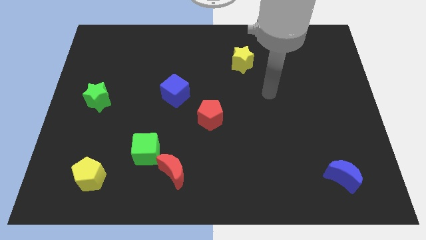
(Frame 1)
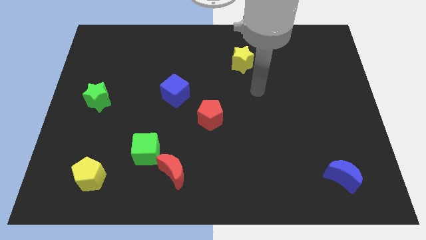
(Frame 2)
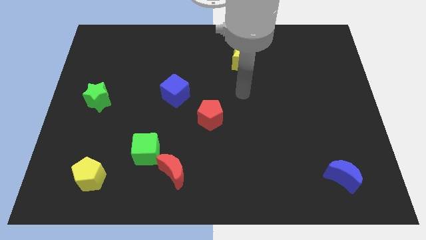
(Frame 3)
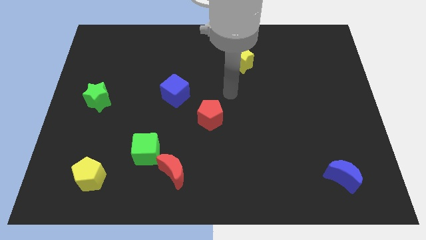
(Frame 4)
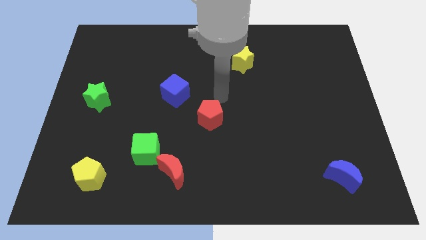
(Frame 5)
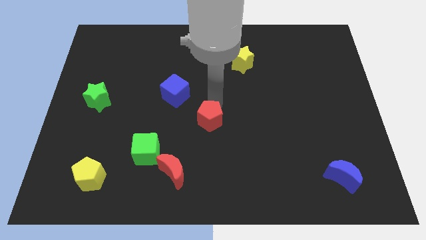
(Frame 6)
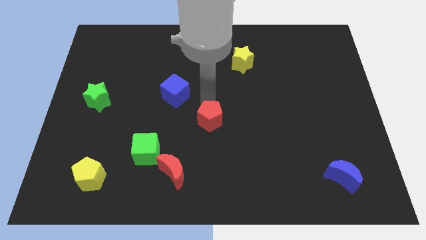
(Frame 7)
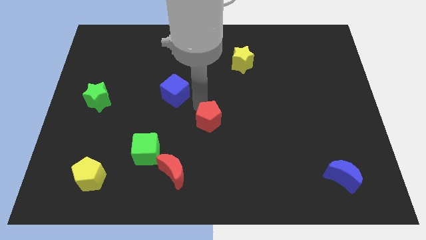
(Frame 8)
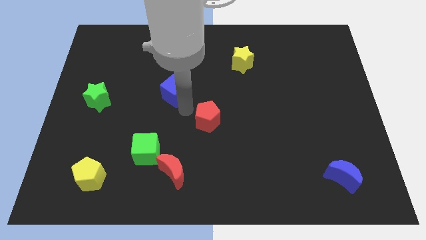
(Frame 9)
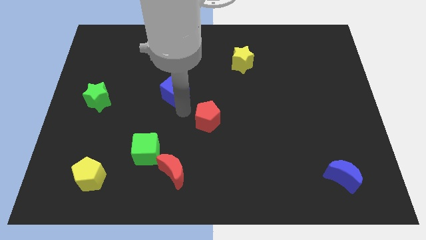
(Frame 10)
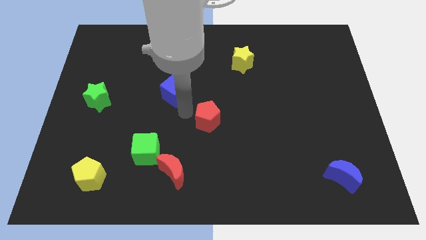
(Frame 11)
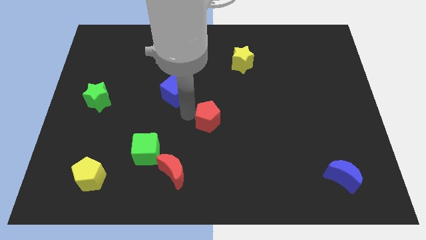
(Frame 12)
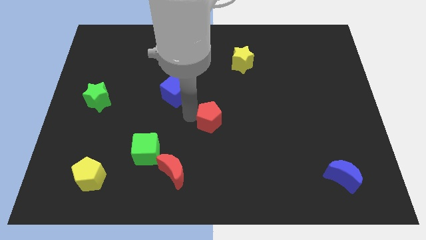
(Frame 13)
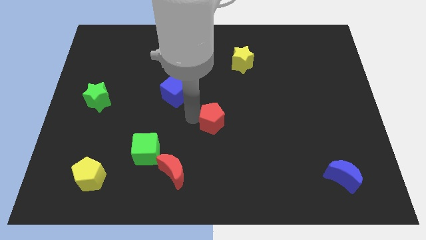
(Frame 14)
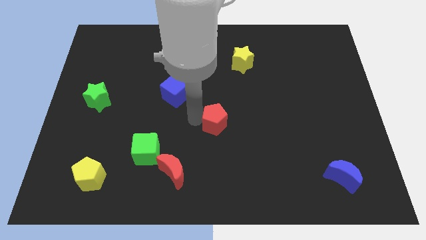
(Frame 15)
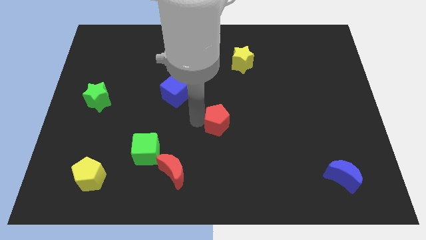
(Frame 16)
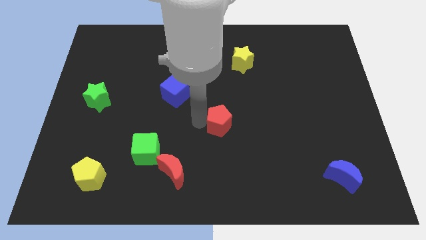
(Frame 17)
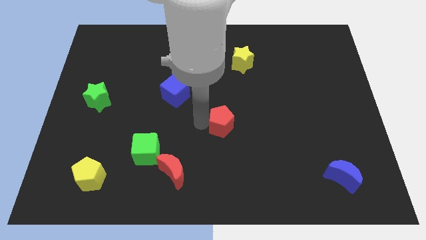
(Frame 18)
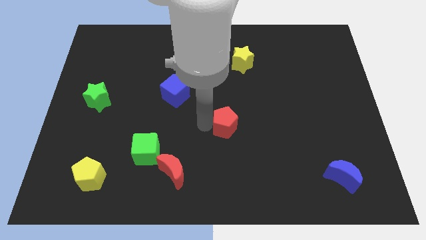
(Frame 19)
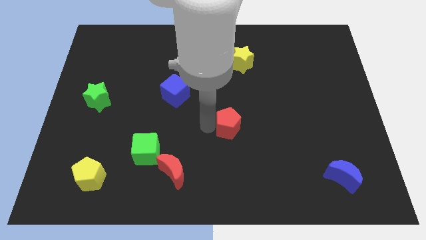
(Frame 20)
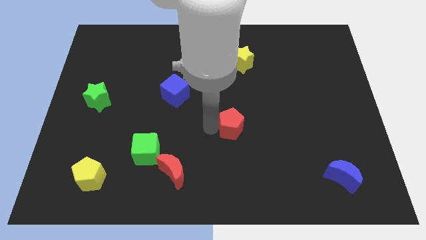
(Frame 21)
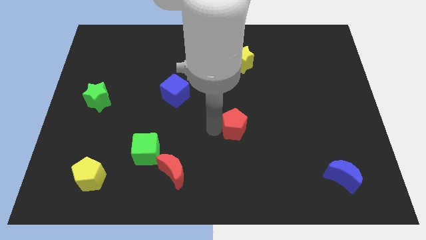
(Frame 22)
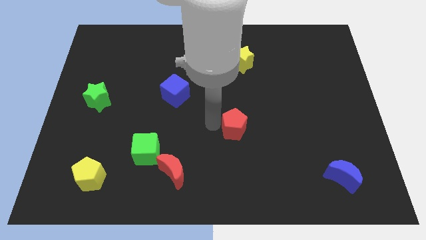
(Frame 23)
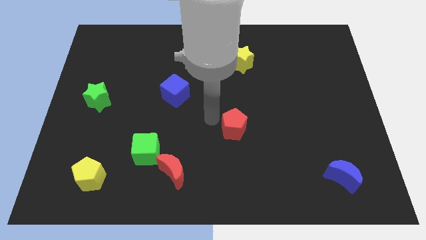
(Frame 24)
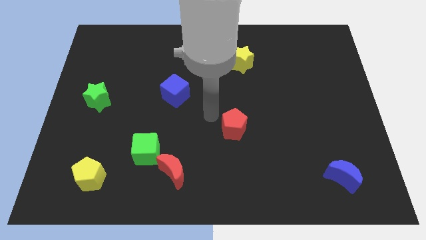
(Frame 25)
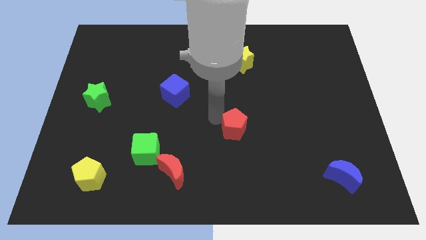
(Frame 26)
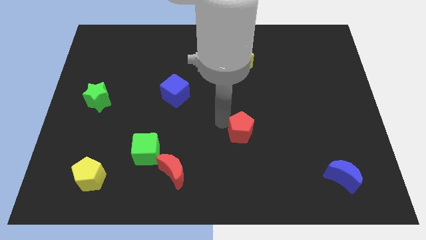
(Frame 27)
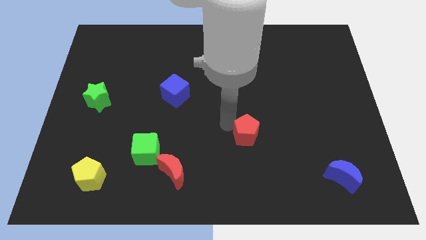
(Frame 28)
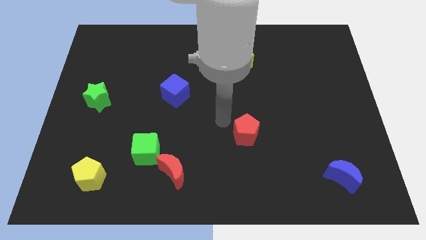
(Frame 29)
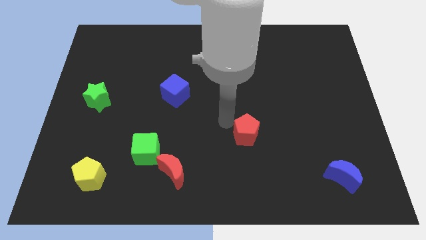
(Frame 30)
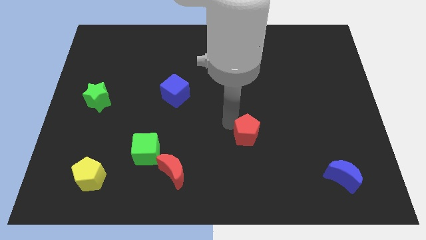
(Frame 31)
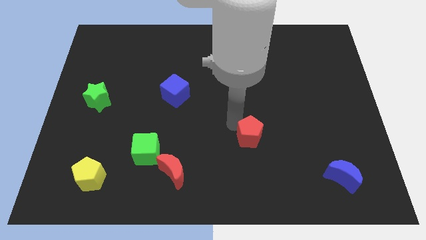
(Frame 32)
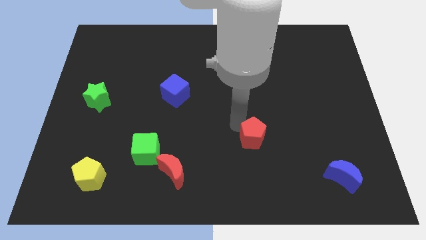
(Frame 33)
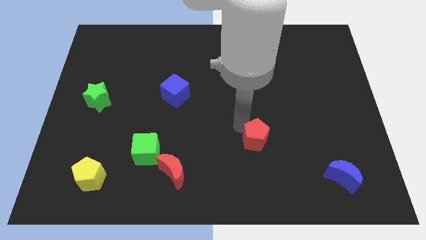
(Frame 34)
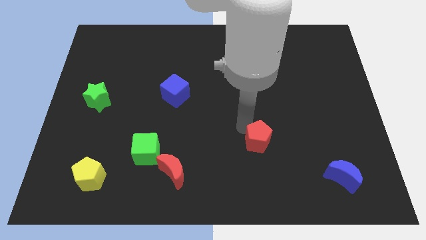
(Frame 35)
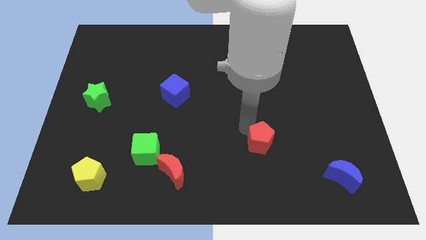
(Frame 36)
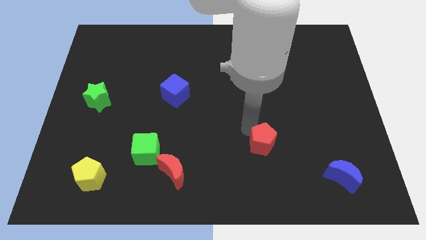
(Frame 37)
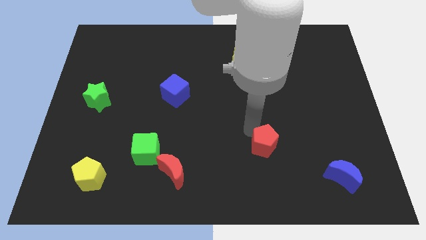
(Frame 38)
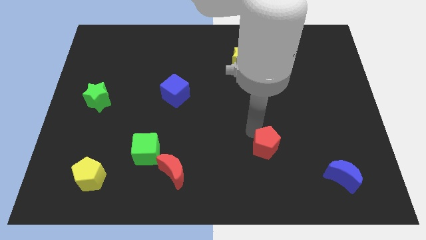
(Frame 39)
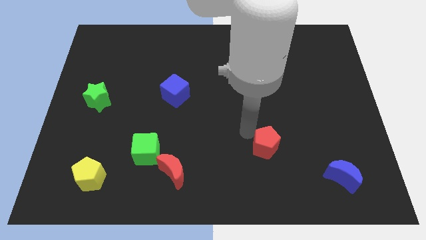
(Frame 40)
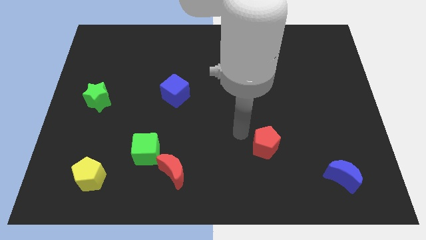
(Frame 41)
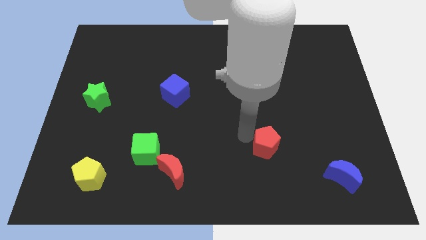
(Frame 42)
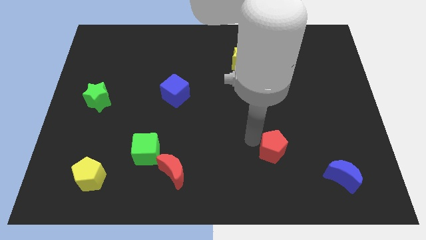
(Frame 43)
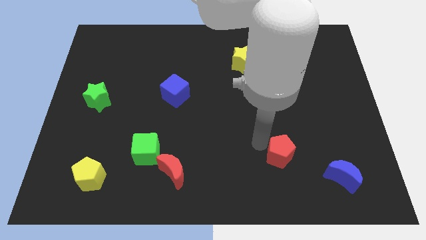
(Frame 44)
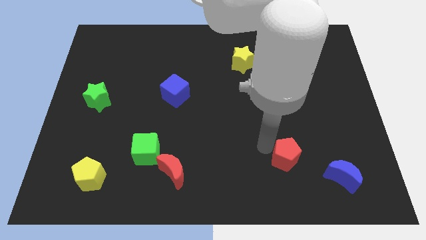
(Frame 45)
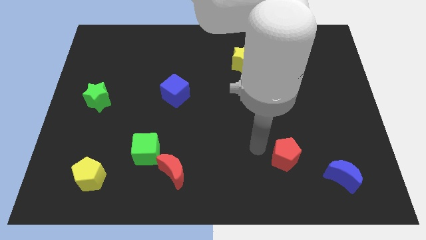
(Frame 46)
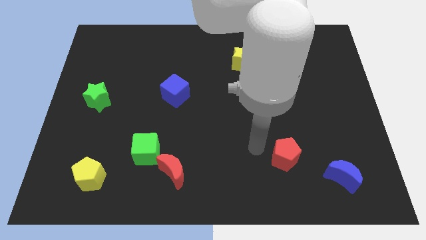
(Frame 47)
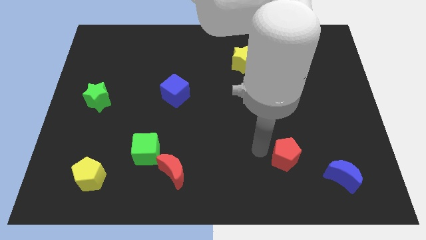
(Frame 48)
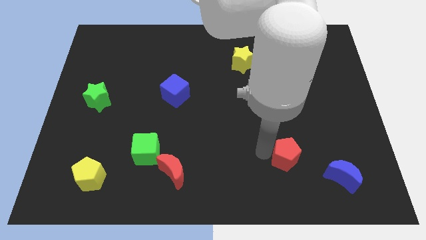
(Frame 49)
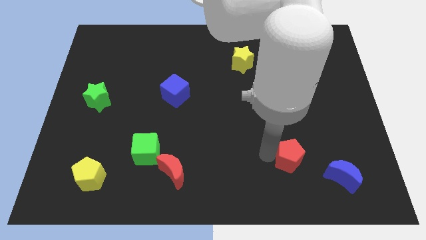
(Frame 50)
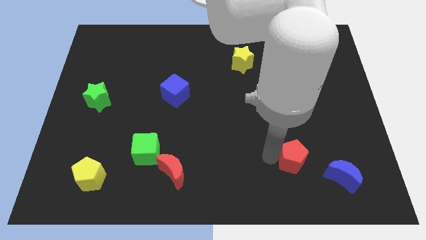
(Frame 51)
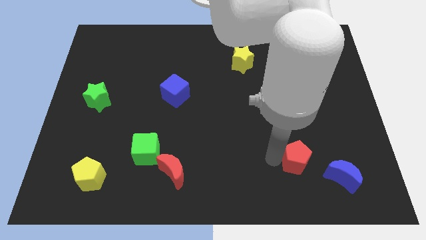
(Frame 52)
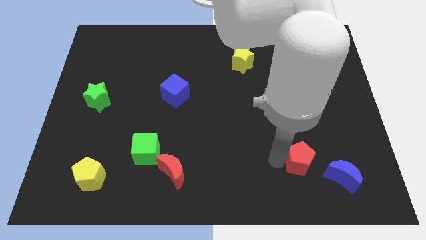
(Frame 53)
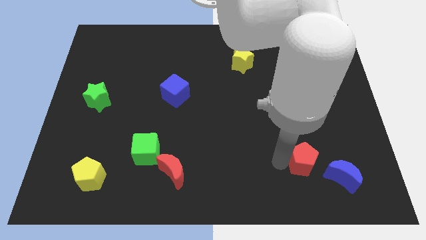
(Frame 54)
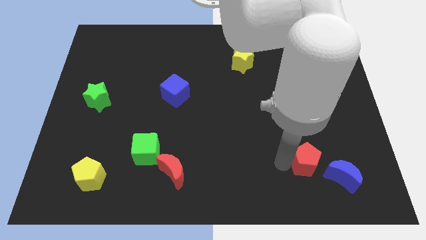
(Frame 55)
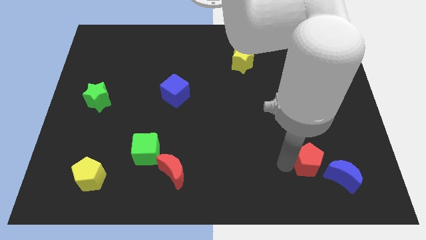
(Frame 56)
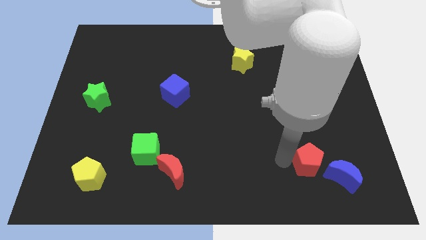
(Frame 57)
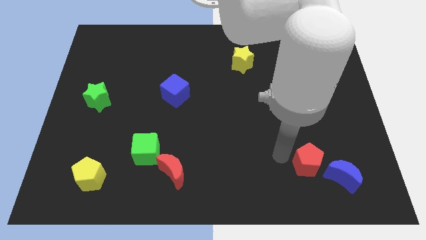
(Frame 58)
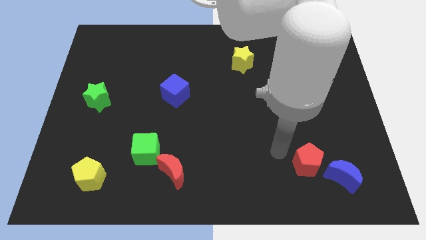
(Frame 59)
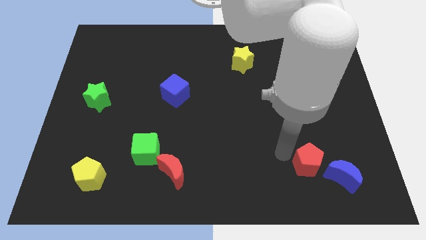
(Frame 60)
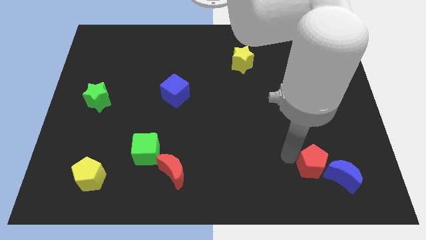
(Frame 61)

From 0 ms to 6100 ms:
move the red pentagon next to the blue moon
